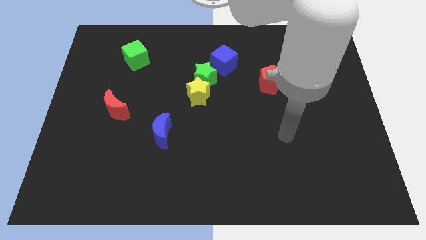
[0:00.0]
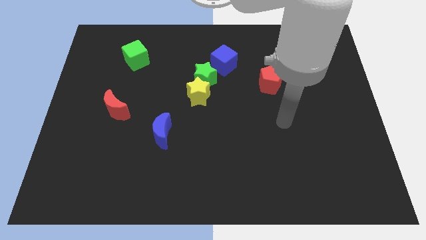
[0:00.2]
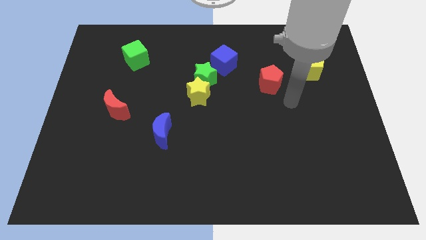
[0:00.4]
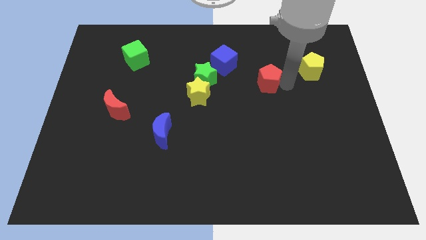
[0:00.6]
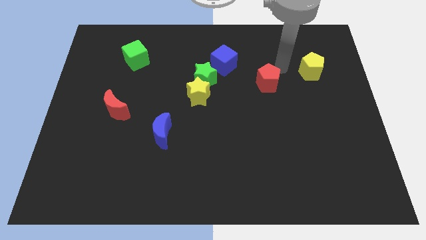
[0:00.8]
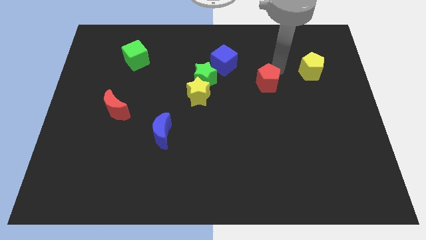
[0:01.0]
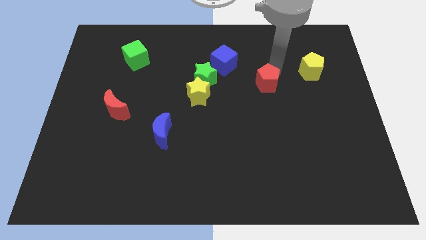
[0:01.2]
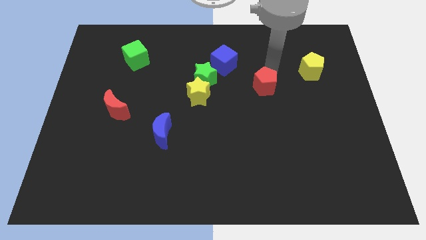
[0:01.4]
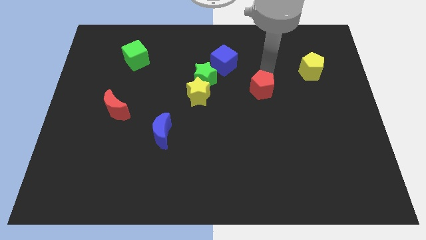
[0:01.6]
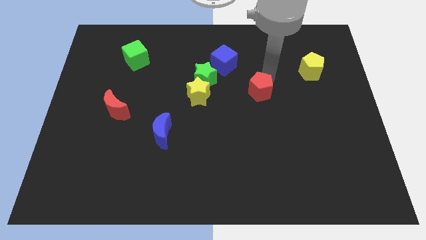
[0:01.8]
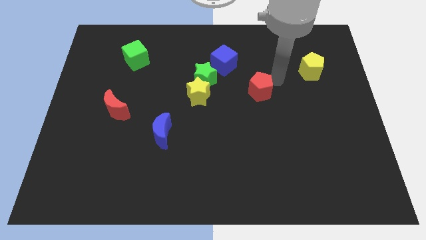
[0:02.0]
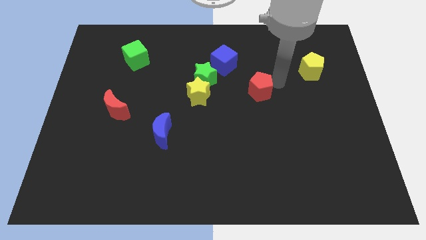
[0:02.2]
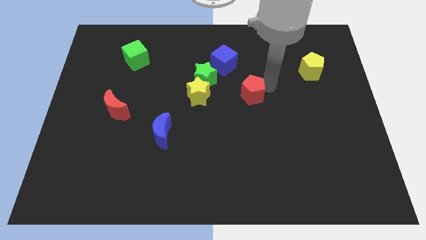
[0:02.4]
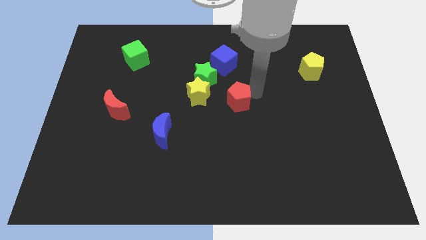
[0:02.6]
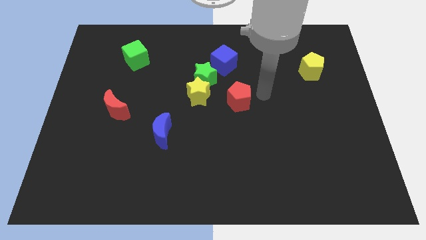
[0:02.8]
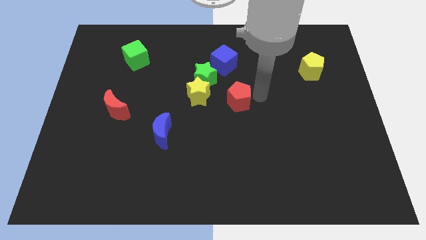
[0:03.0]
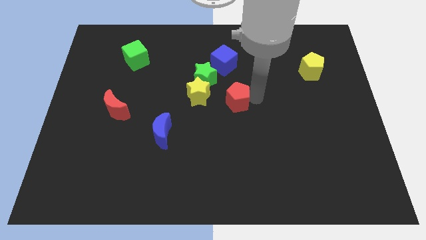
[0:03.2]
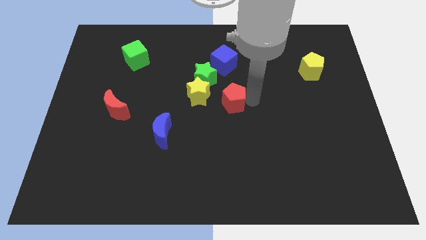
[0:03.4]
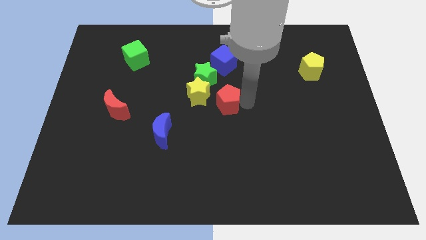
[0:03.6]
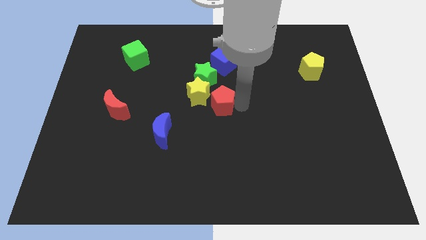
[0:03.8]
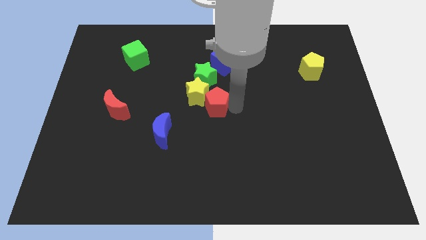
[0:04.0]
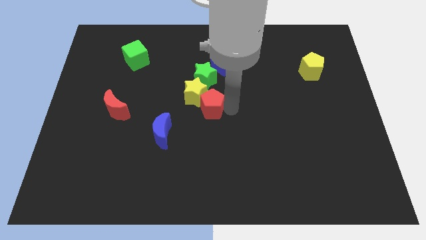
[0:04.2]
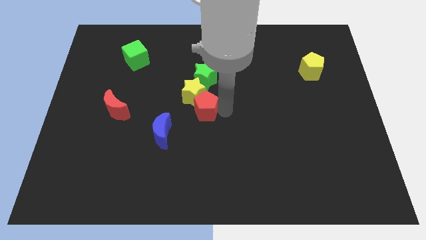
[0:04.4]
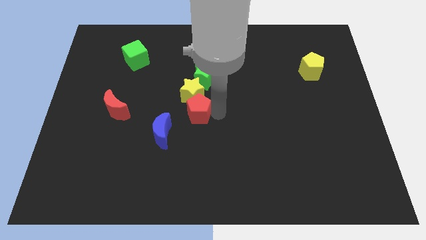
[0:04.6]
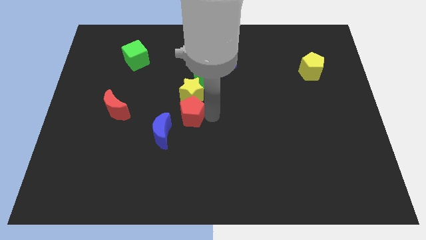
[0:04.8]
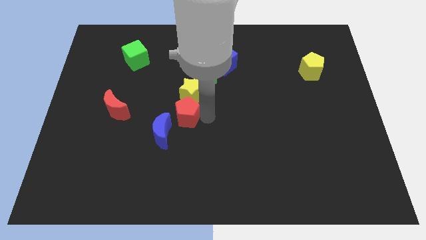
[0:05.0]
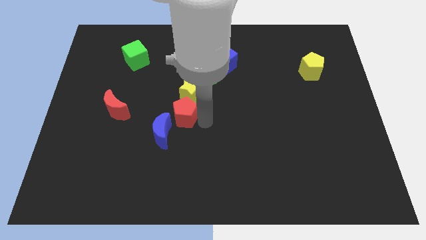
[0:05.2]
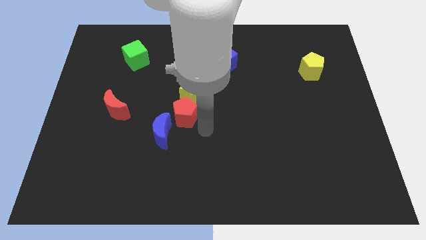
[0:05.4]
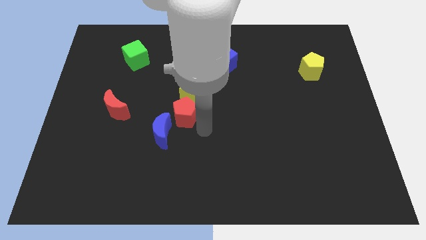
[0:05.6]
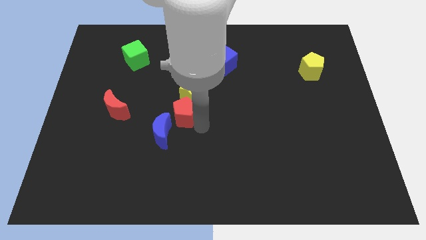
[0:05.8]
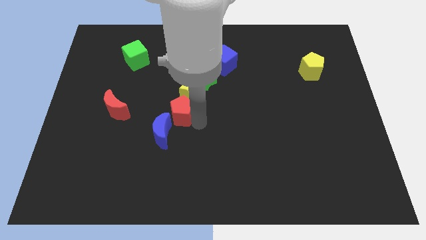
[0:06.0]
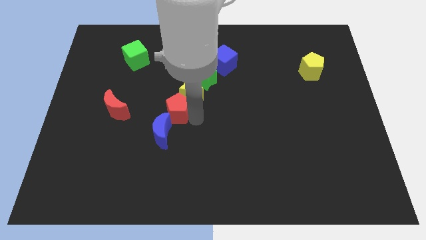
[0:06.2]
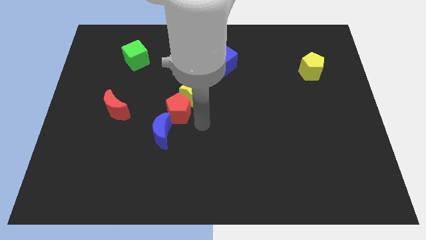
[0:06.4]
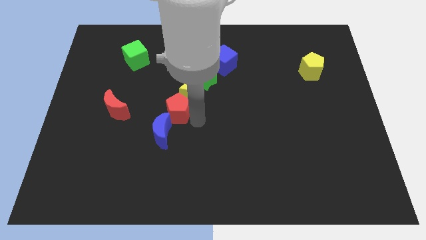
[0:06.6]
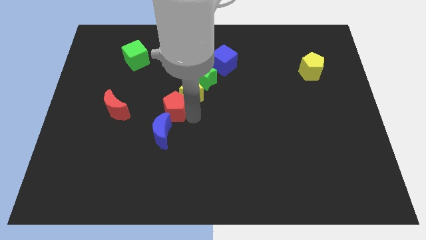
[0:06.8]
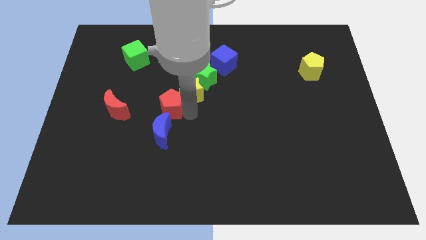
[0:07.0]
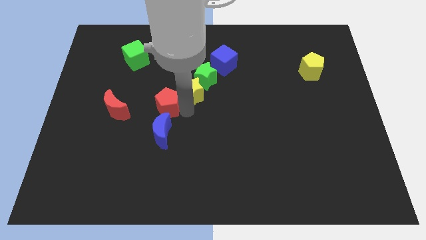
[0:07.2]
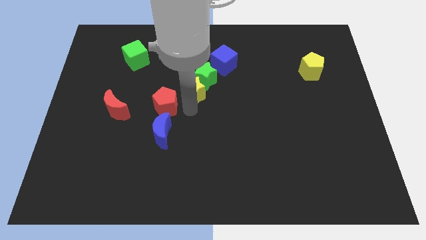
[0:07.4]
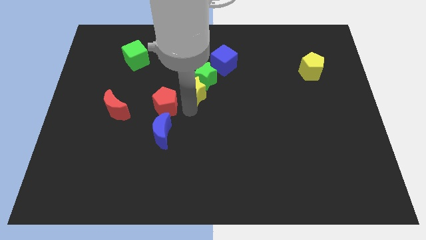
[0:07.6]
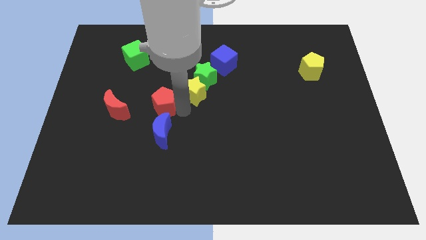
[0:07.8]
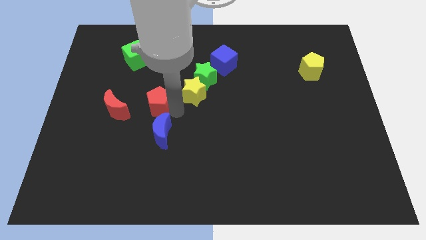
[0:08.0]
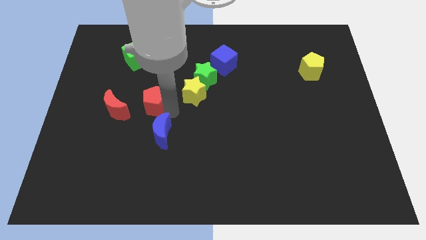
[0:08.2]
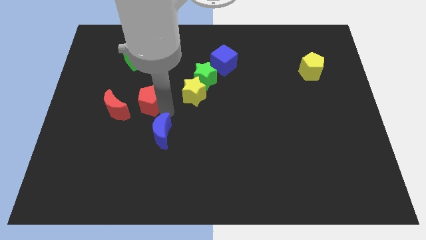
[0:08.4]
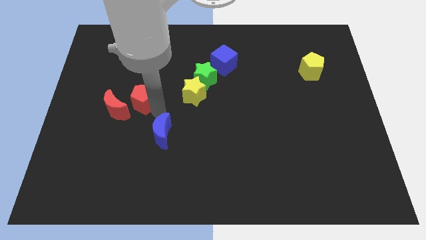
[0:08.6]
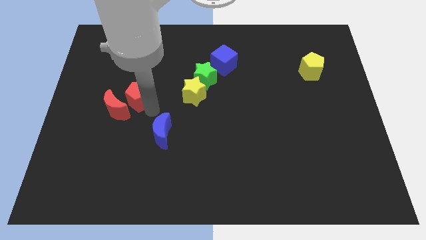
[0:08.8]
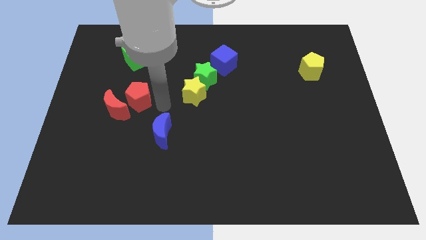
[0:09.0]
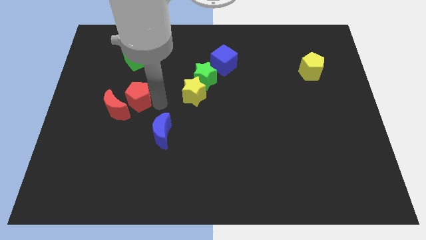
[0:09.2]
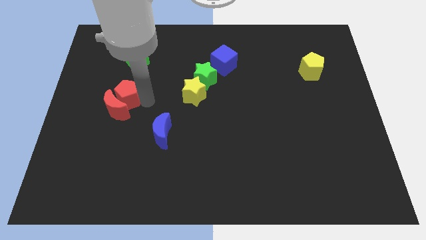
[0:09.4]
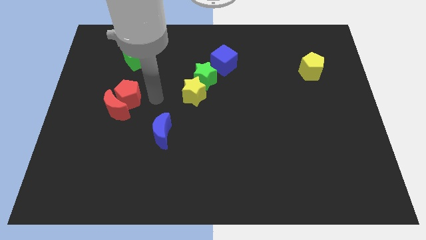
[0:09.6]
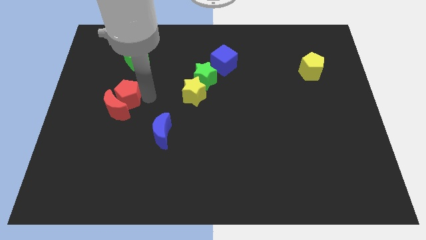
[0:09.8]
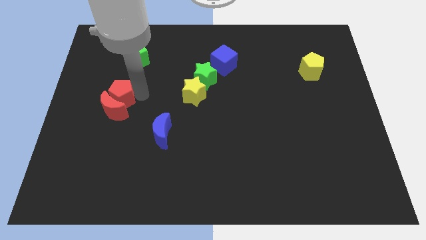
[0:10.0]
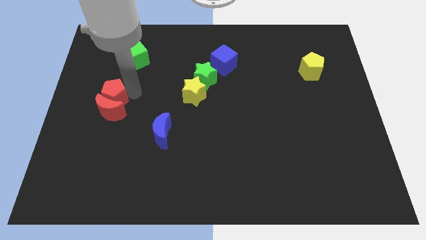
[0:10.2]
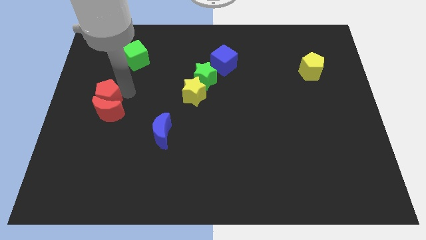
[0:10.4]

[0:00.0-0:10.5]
push the red pentagon to the left side of the board

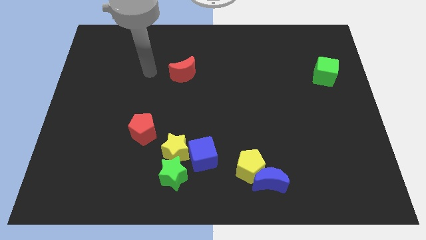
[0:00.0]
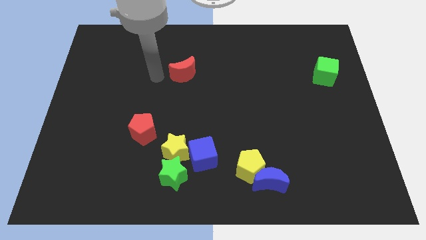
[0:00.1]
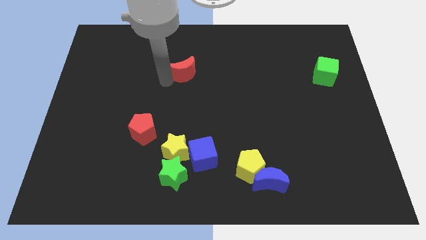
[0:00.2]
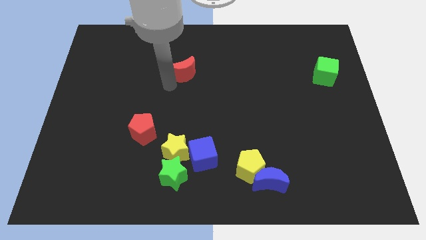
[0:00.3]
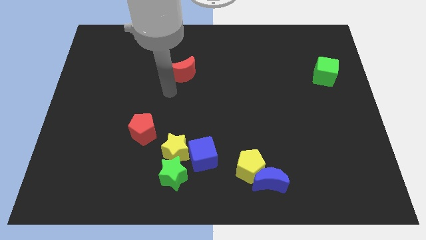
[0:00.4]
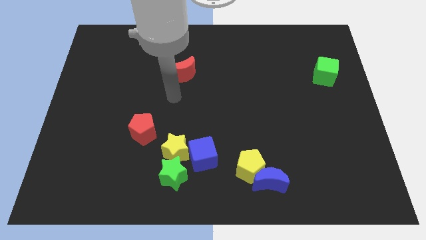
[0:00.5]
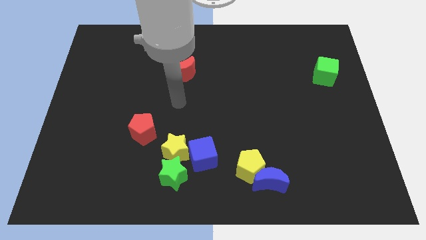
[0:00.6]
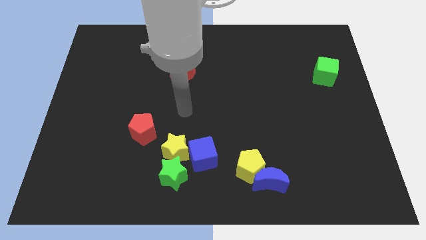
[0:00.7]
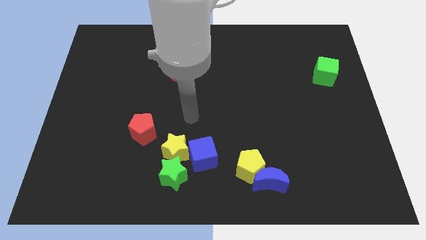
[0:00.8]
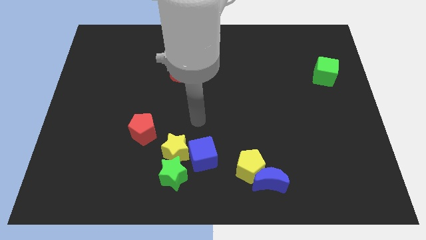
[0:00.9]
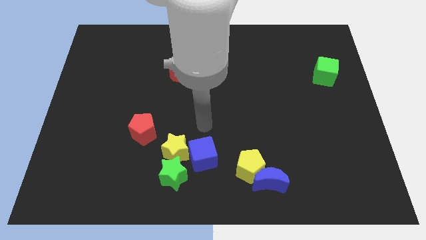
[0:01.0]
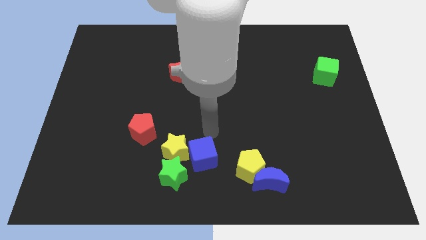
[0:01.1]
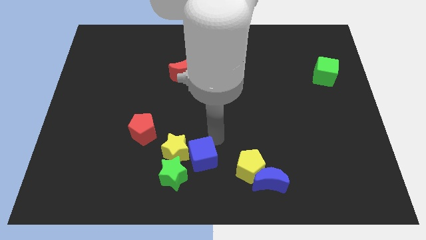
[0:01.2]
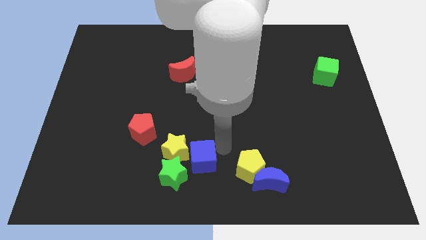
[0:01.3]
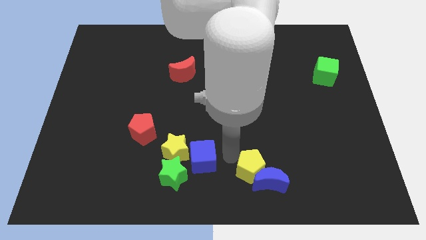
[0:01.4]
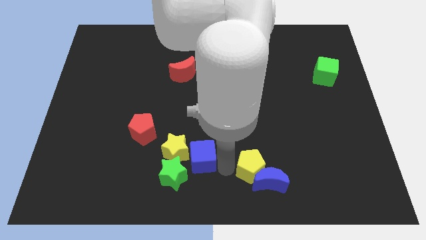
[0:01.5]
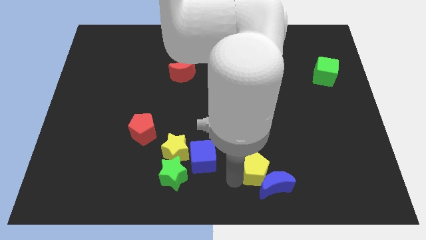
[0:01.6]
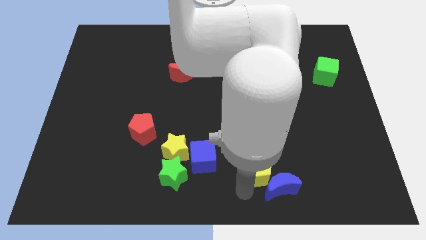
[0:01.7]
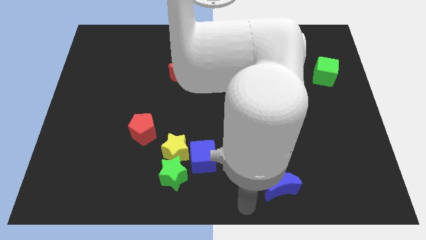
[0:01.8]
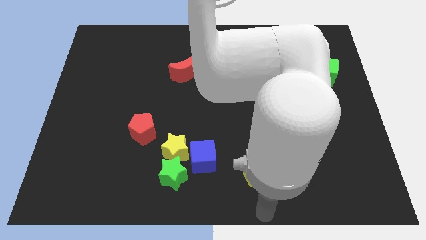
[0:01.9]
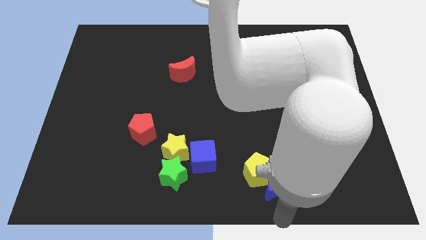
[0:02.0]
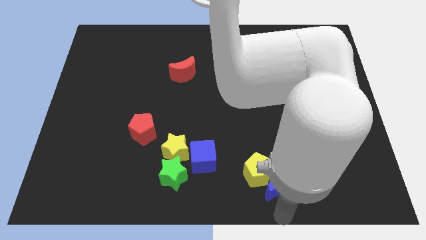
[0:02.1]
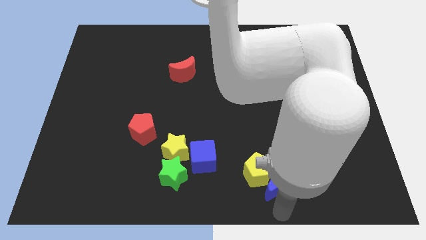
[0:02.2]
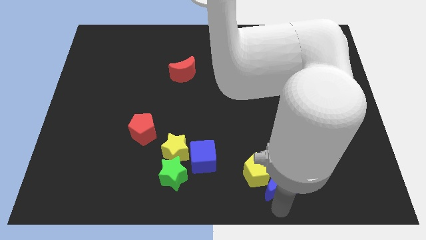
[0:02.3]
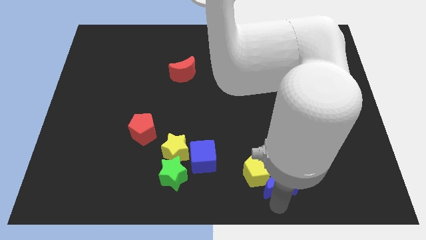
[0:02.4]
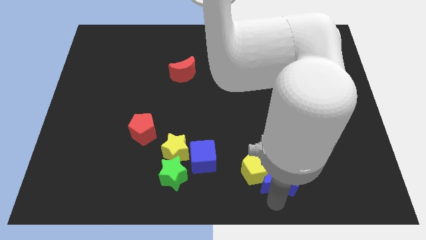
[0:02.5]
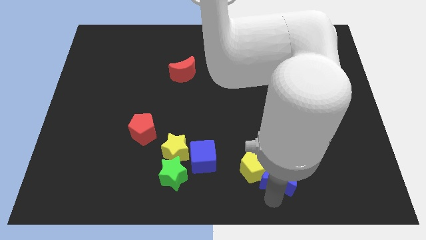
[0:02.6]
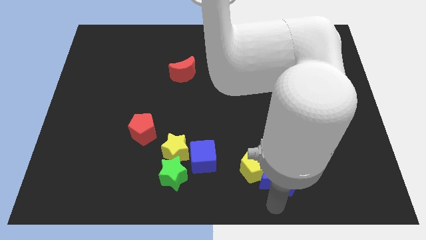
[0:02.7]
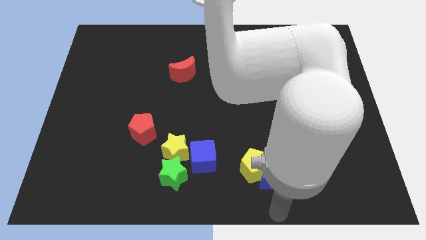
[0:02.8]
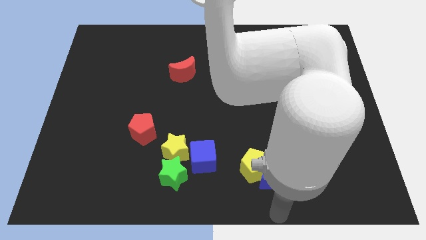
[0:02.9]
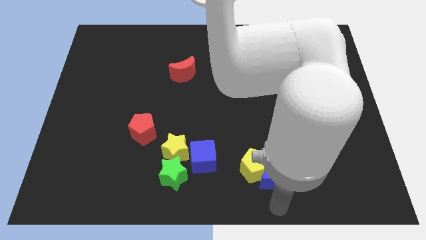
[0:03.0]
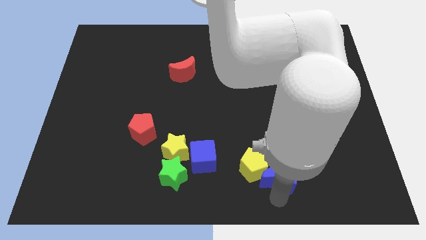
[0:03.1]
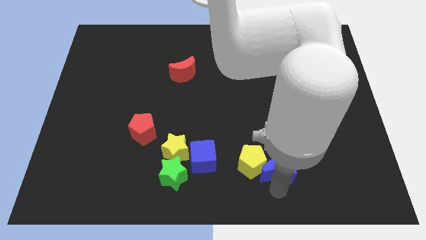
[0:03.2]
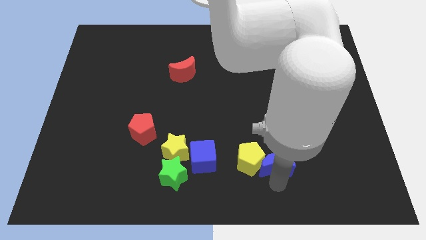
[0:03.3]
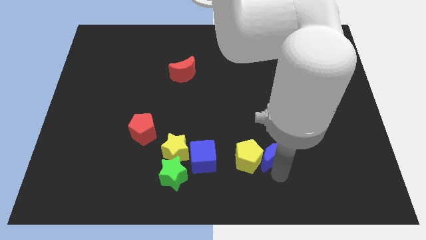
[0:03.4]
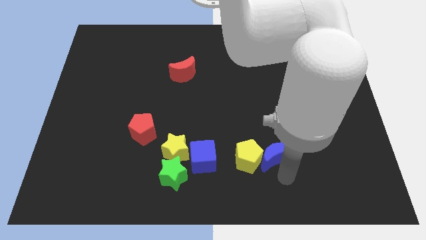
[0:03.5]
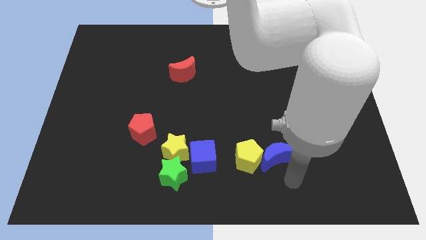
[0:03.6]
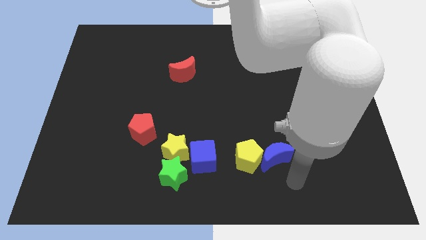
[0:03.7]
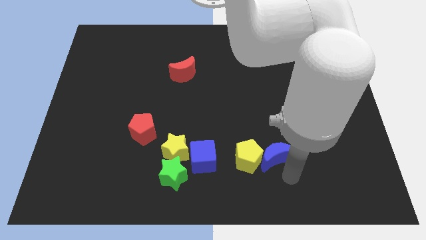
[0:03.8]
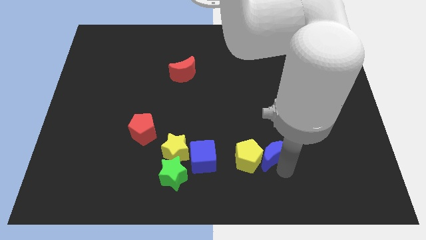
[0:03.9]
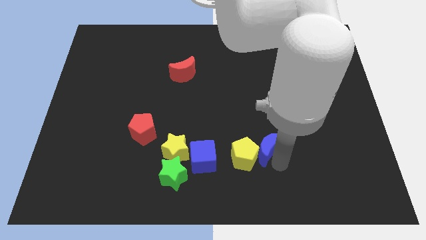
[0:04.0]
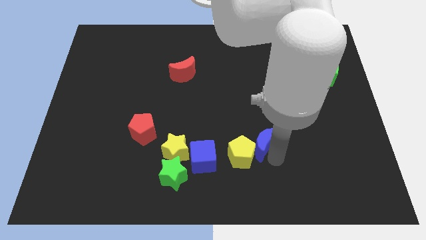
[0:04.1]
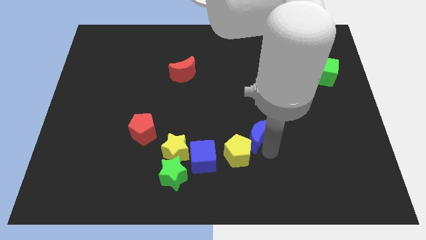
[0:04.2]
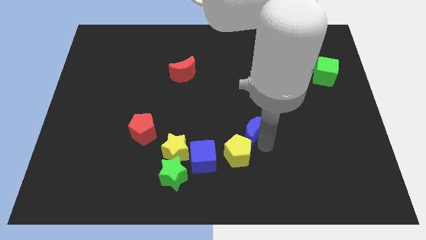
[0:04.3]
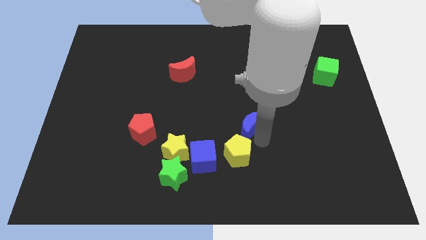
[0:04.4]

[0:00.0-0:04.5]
put the blue moon to the center of the board
